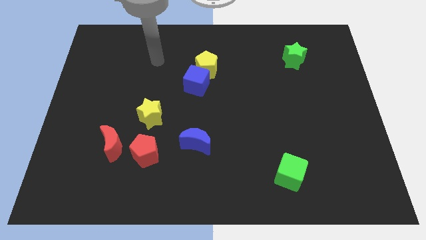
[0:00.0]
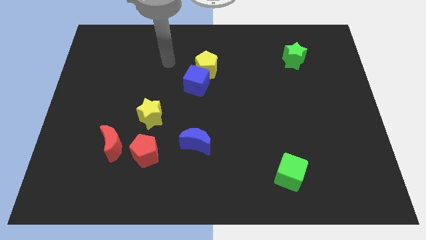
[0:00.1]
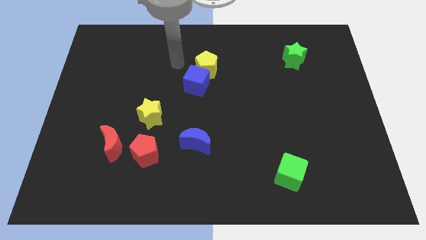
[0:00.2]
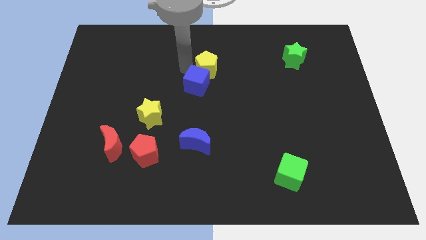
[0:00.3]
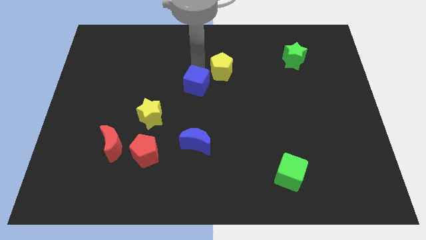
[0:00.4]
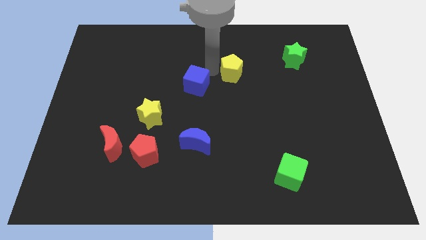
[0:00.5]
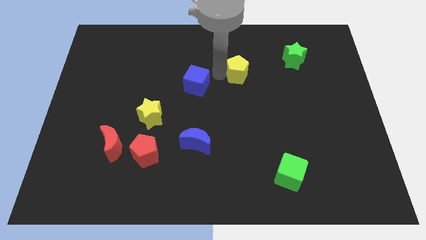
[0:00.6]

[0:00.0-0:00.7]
separate the blue cube from the yellow pentagon

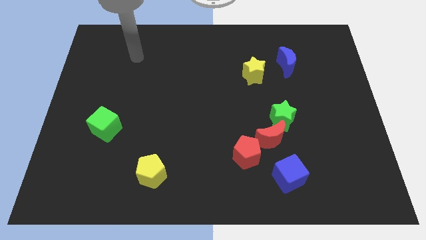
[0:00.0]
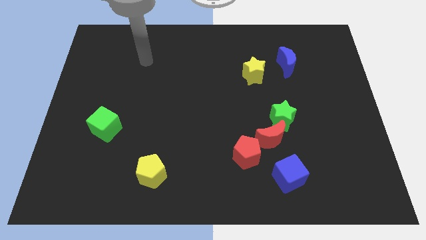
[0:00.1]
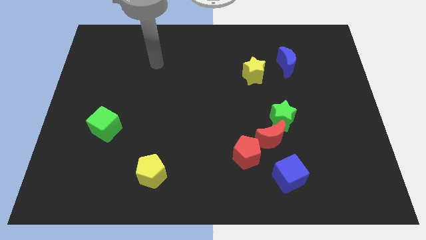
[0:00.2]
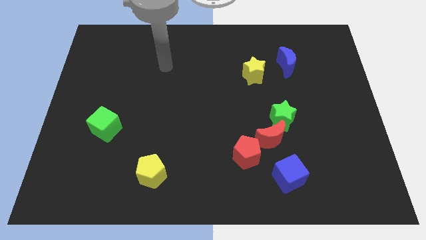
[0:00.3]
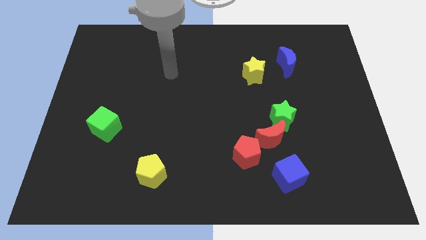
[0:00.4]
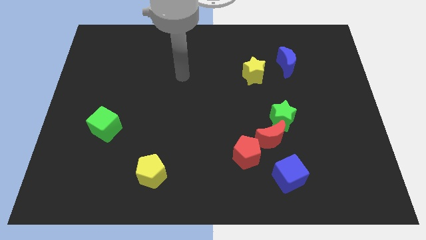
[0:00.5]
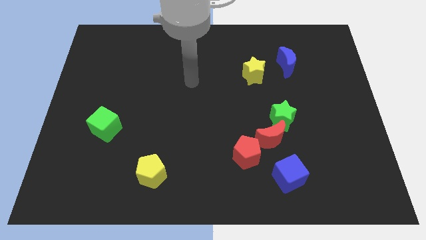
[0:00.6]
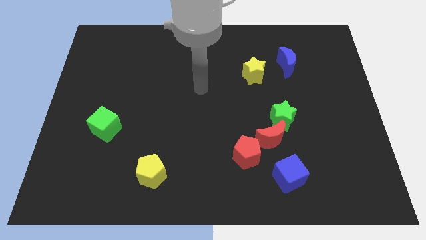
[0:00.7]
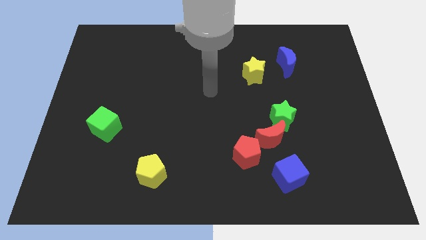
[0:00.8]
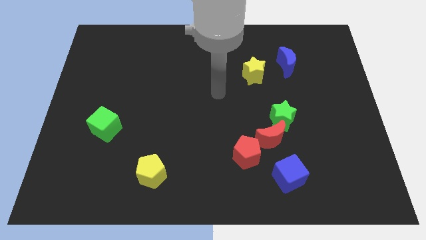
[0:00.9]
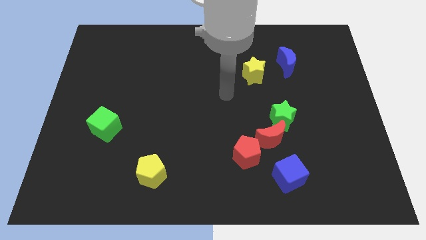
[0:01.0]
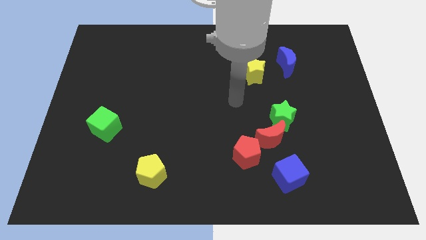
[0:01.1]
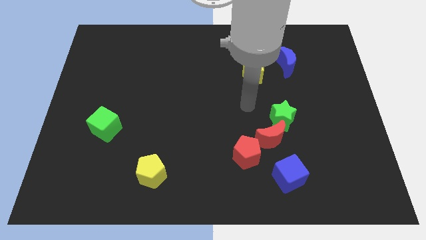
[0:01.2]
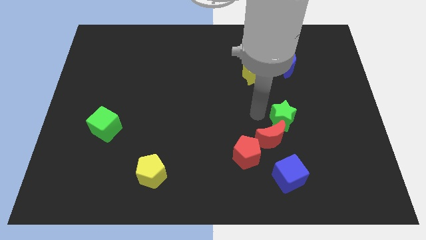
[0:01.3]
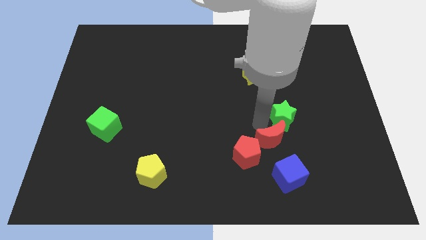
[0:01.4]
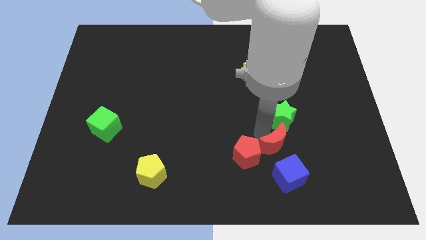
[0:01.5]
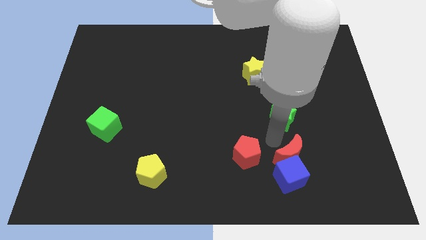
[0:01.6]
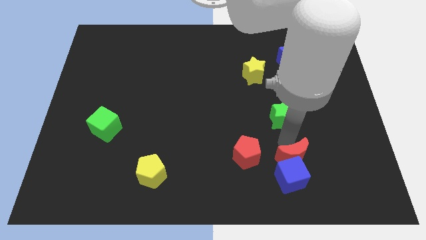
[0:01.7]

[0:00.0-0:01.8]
move the green star away from the red moon

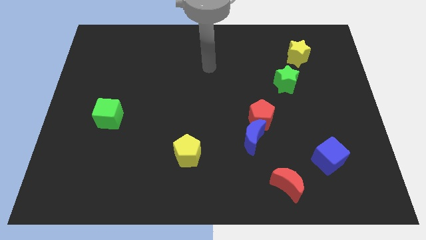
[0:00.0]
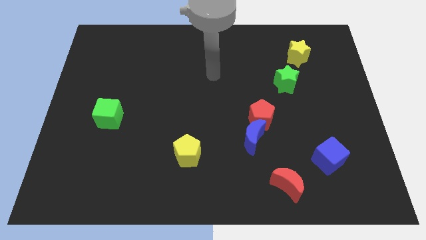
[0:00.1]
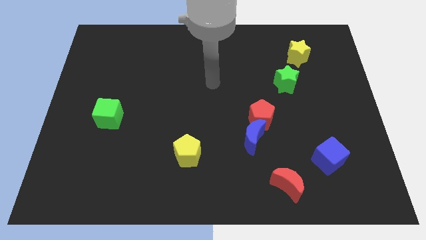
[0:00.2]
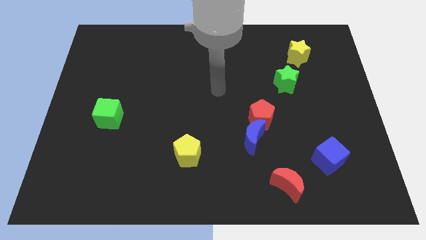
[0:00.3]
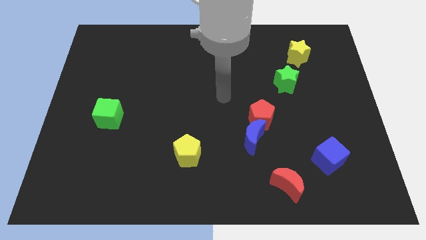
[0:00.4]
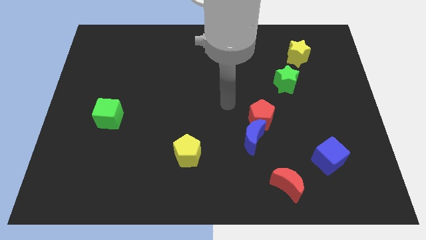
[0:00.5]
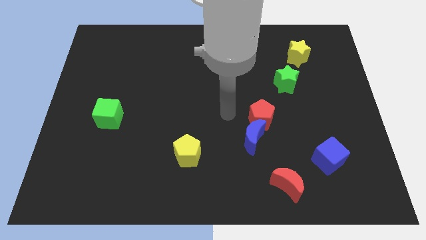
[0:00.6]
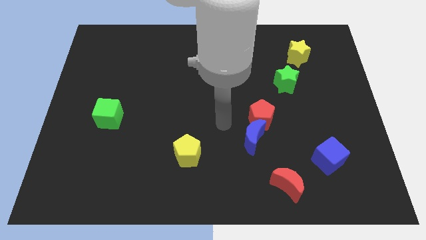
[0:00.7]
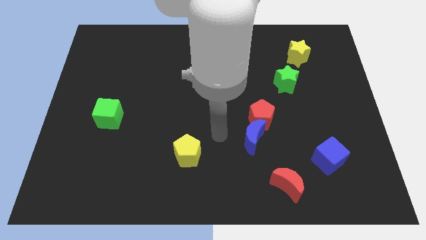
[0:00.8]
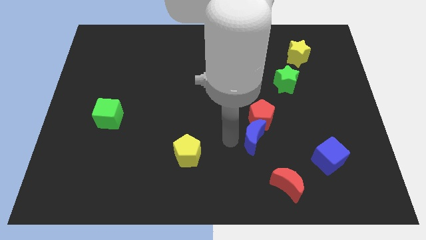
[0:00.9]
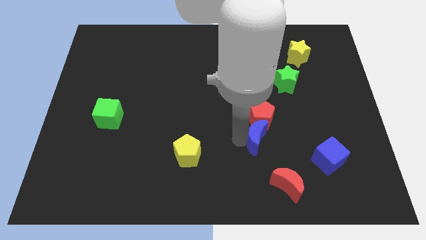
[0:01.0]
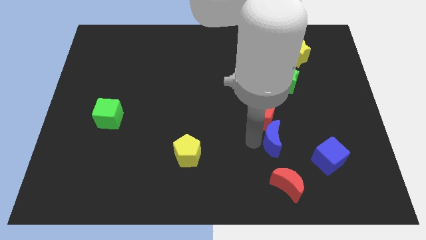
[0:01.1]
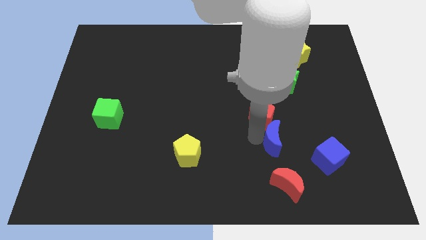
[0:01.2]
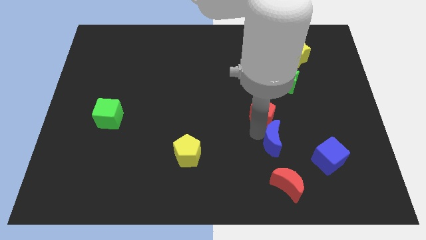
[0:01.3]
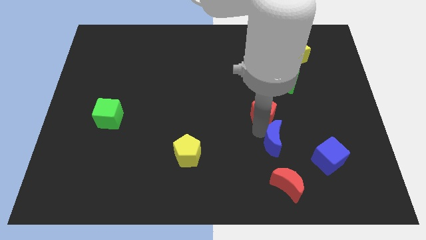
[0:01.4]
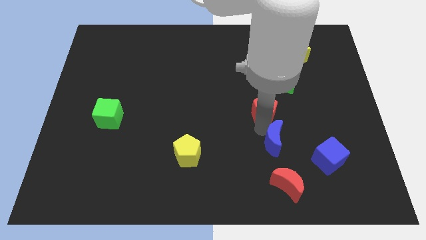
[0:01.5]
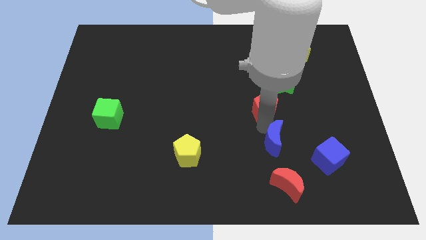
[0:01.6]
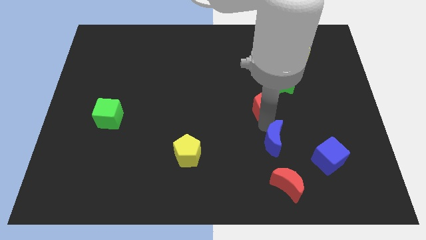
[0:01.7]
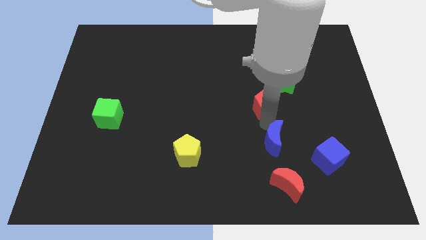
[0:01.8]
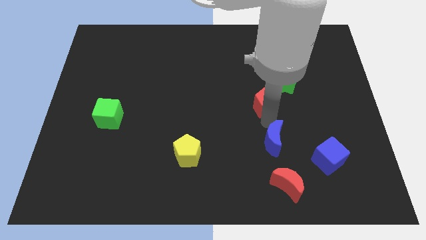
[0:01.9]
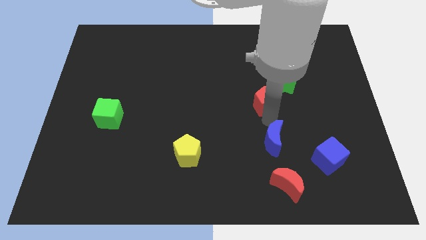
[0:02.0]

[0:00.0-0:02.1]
separate the red pentagon from the blue moon

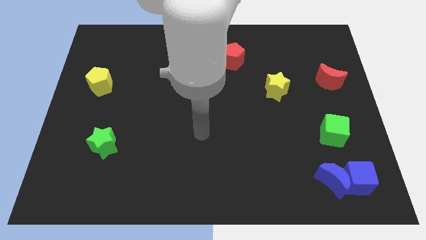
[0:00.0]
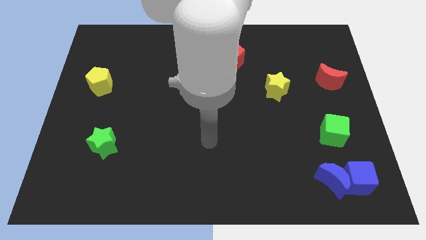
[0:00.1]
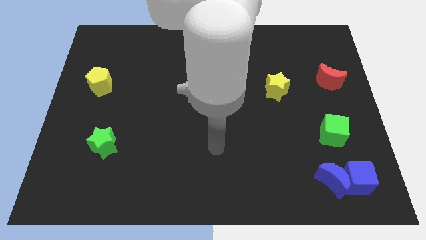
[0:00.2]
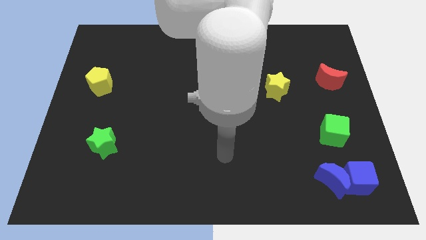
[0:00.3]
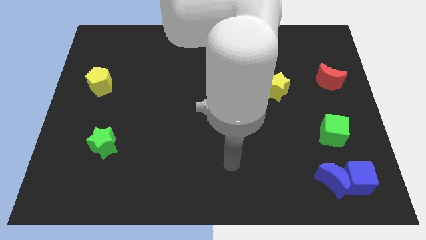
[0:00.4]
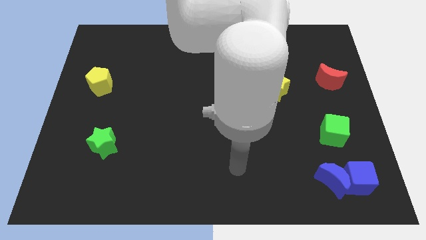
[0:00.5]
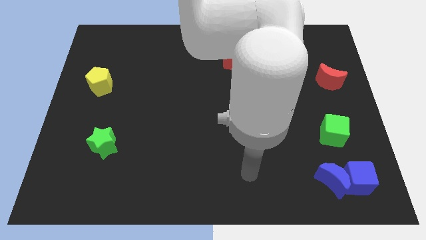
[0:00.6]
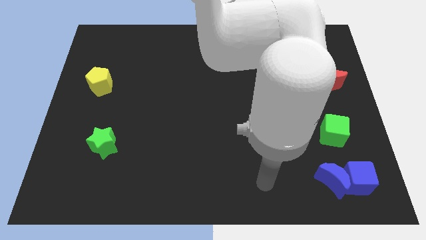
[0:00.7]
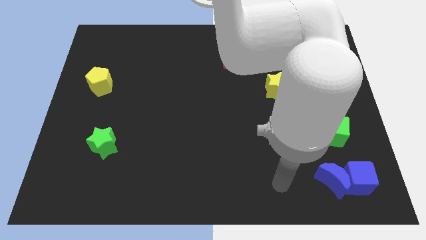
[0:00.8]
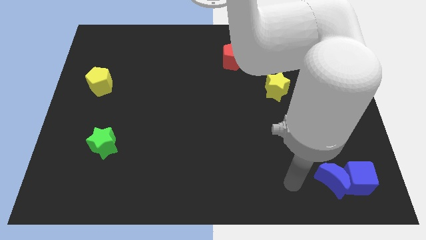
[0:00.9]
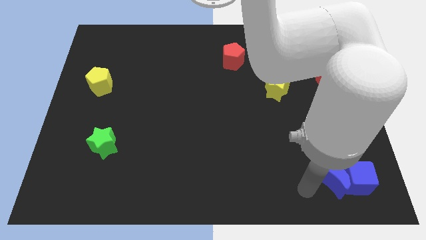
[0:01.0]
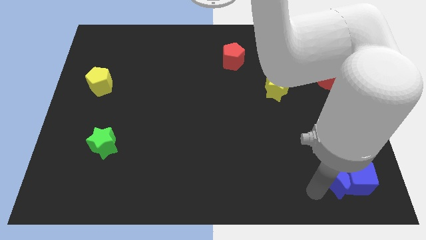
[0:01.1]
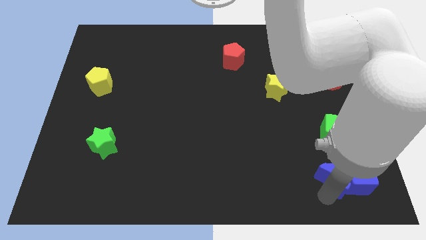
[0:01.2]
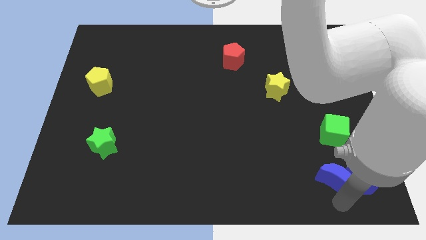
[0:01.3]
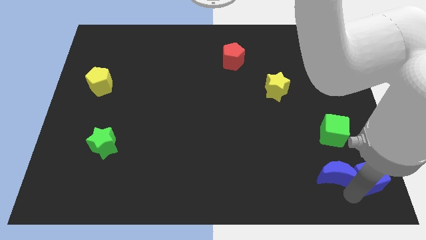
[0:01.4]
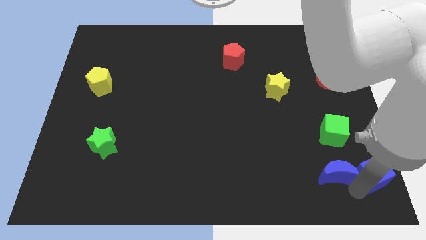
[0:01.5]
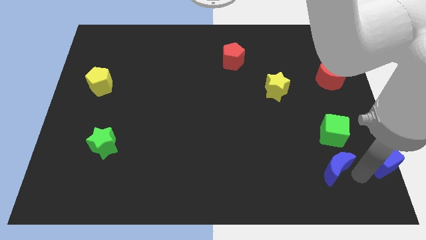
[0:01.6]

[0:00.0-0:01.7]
move the blue moon away from the blue cube

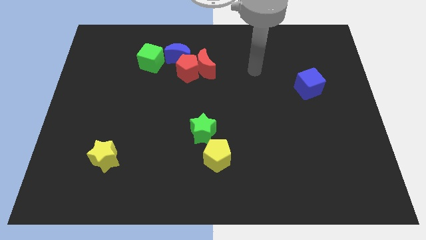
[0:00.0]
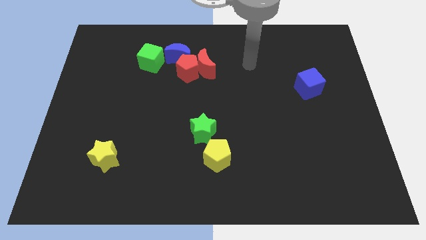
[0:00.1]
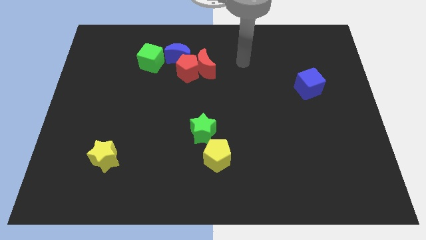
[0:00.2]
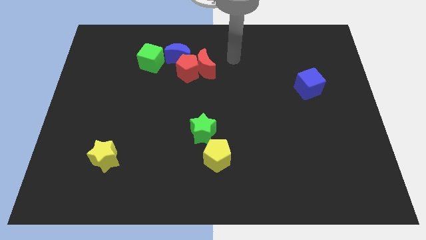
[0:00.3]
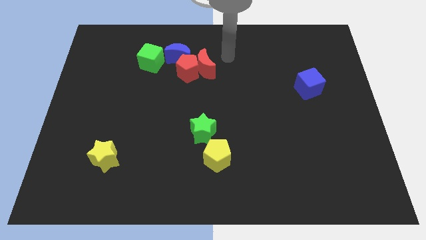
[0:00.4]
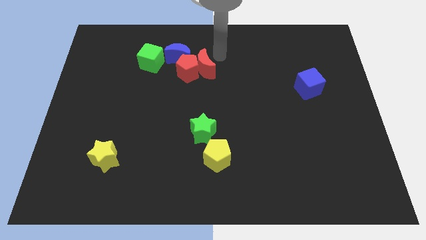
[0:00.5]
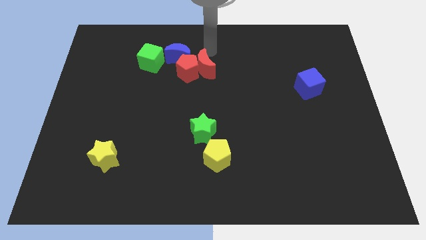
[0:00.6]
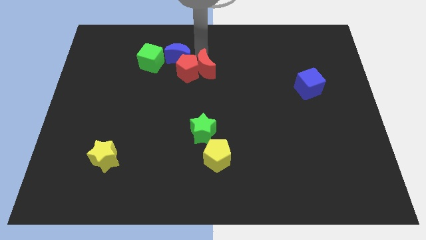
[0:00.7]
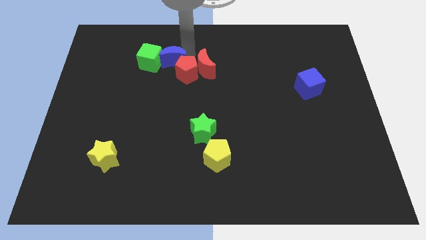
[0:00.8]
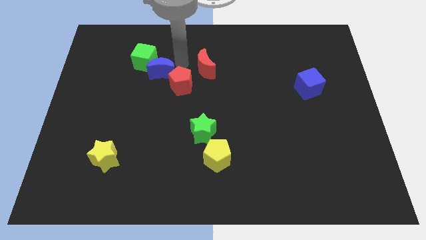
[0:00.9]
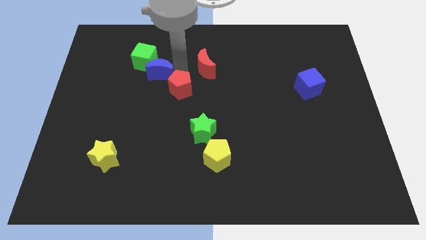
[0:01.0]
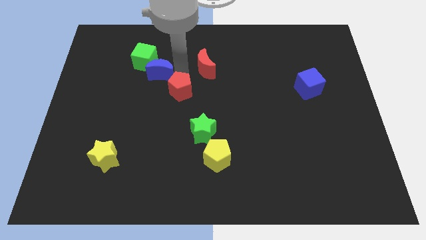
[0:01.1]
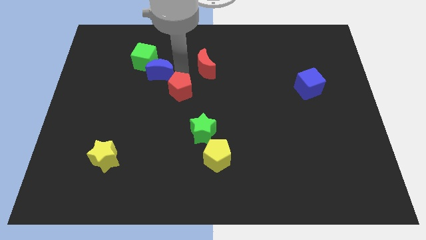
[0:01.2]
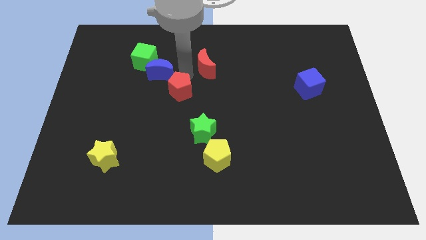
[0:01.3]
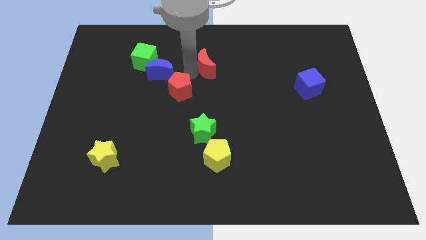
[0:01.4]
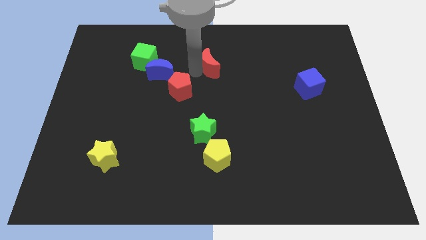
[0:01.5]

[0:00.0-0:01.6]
separate the red moon from the red pentagon and blue moon

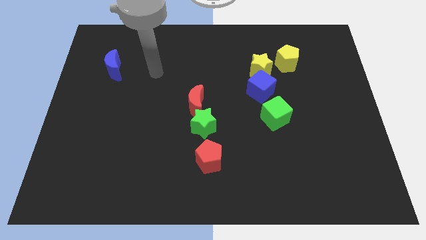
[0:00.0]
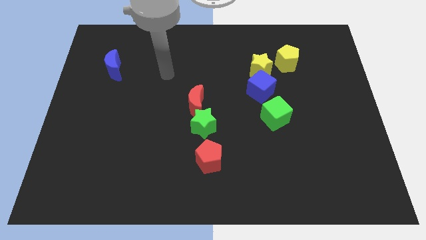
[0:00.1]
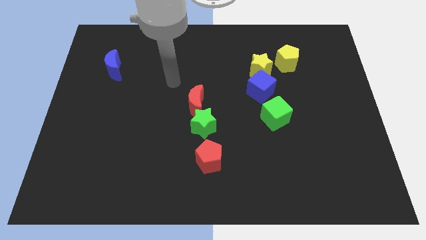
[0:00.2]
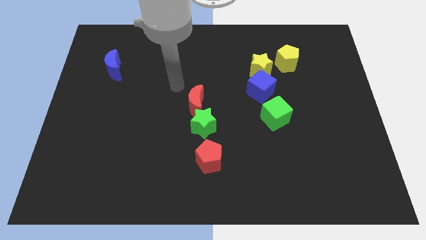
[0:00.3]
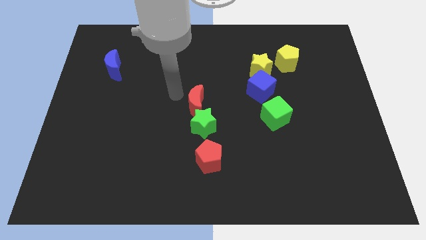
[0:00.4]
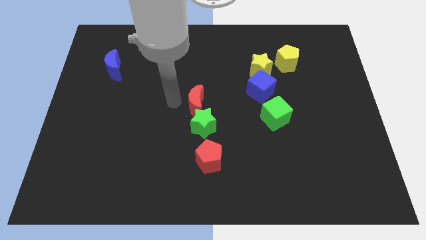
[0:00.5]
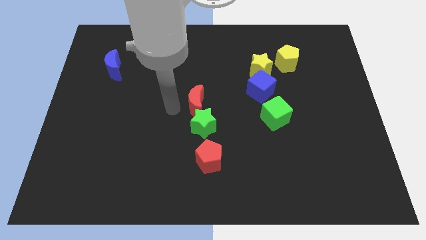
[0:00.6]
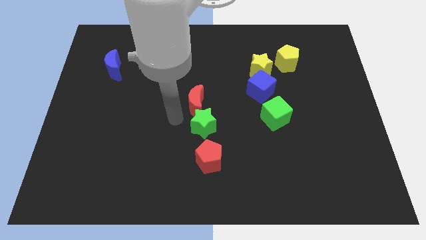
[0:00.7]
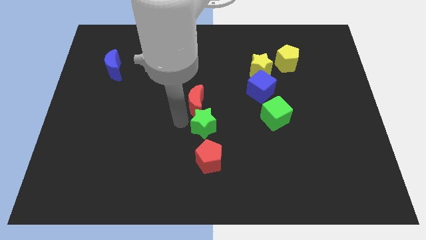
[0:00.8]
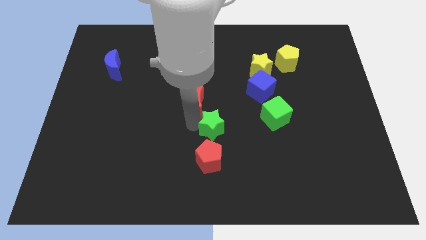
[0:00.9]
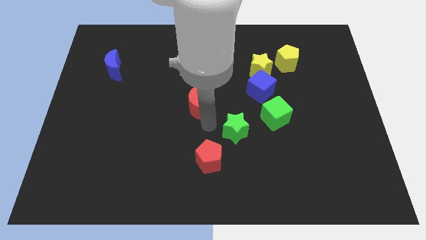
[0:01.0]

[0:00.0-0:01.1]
move the red moon away from the green star

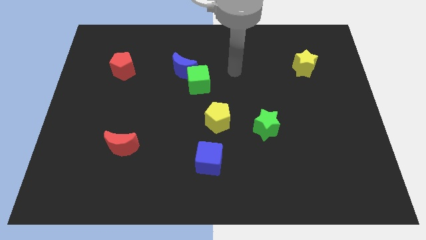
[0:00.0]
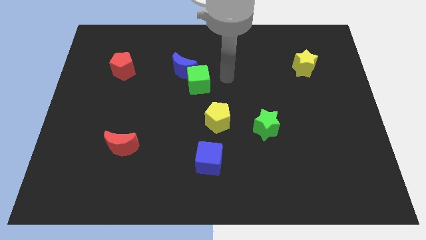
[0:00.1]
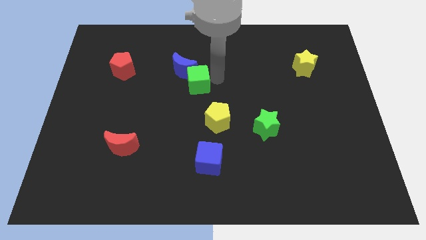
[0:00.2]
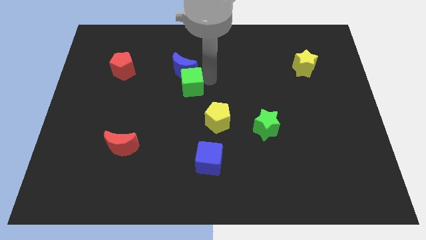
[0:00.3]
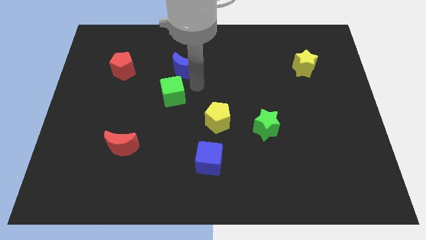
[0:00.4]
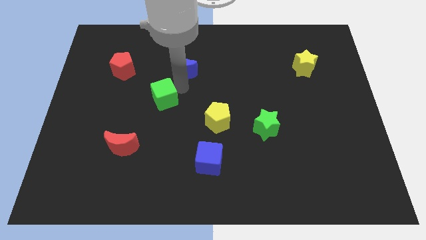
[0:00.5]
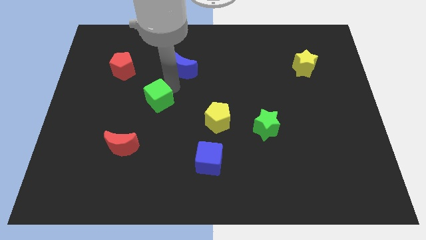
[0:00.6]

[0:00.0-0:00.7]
pull the blue moon apart from the green cube
